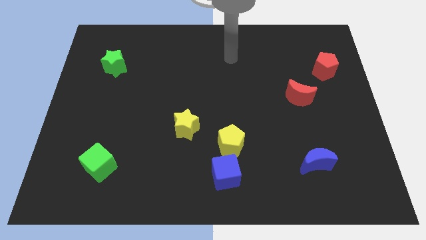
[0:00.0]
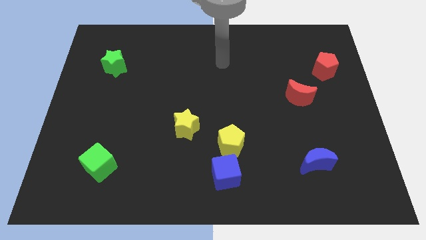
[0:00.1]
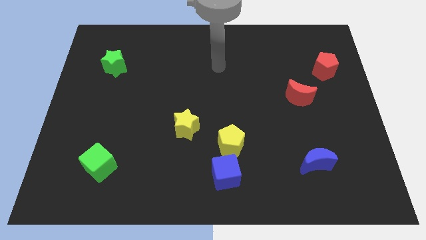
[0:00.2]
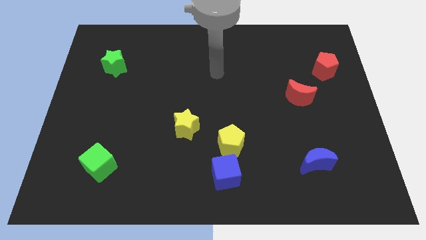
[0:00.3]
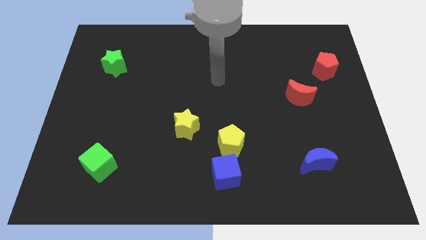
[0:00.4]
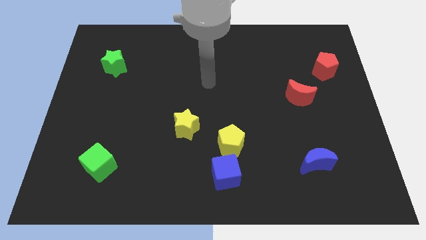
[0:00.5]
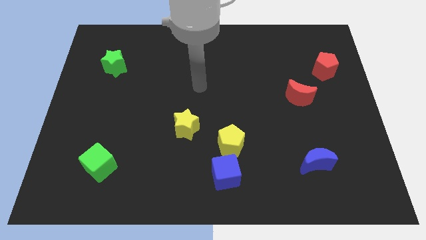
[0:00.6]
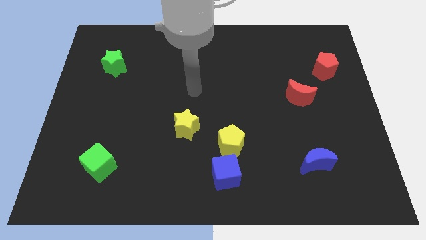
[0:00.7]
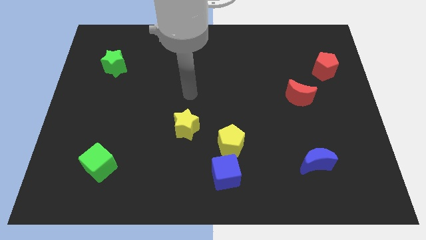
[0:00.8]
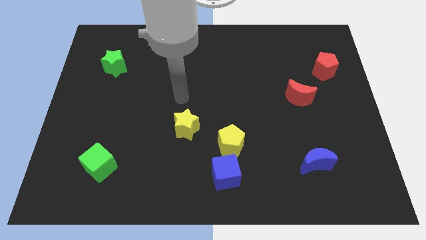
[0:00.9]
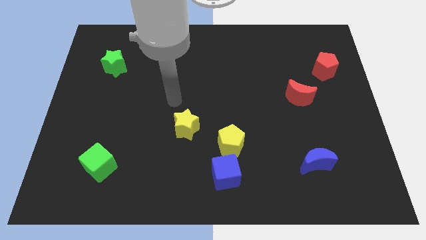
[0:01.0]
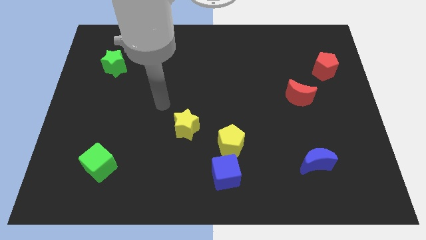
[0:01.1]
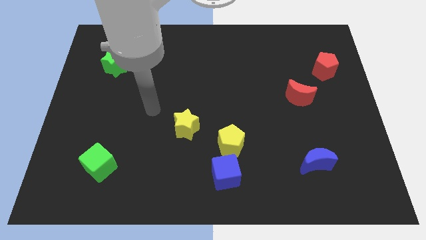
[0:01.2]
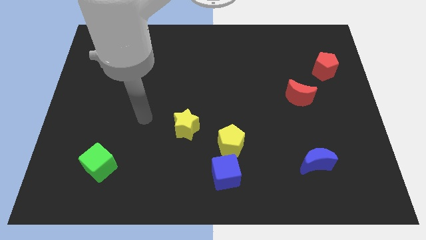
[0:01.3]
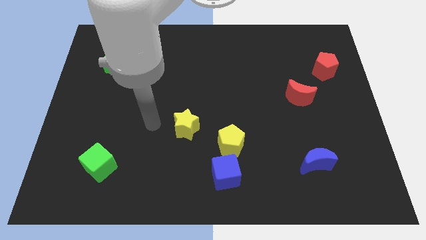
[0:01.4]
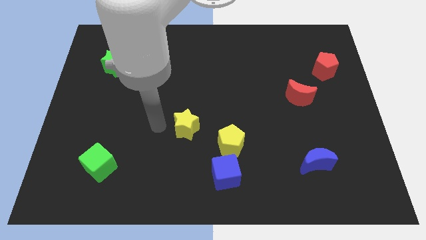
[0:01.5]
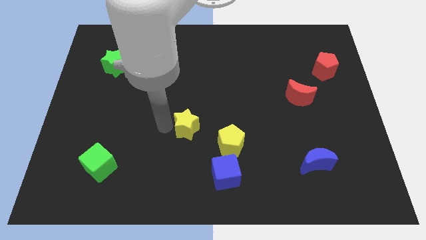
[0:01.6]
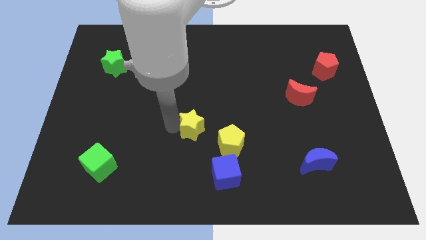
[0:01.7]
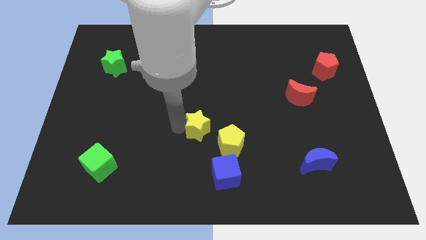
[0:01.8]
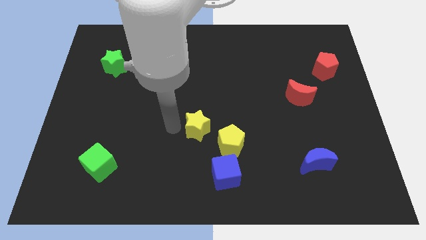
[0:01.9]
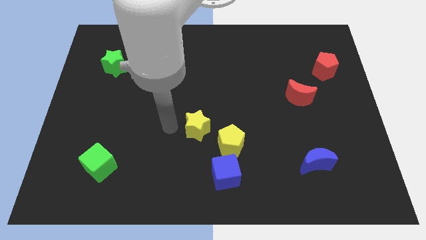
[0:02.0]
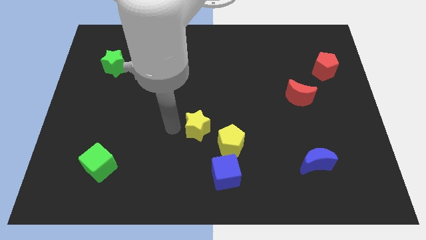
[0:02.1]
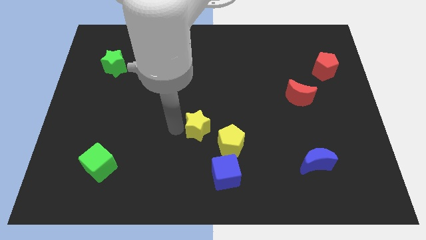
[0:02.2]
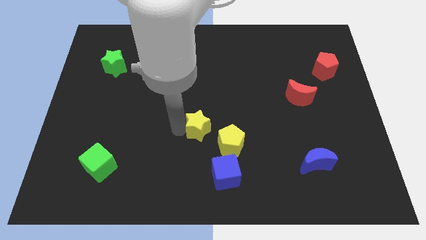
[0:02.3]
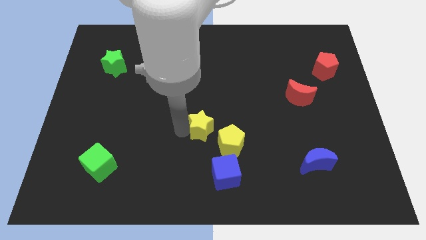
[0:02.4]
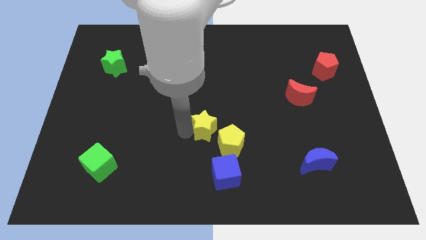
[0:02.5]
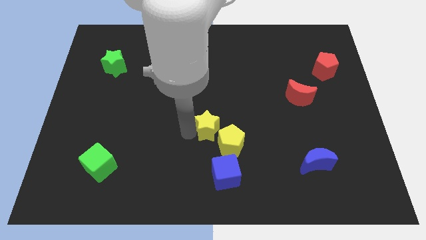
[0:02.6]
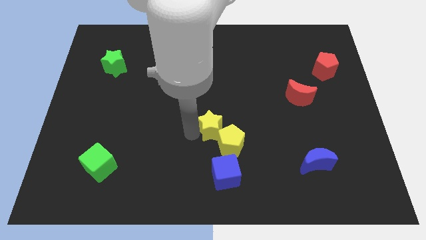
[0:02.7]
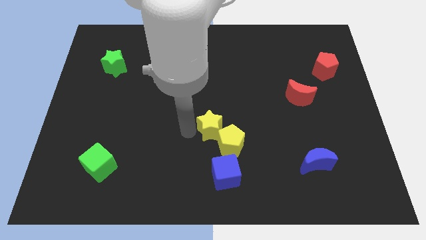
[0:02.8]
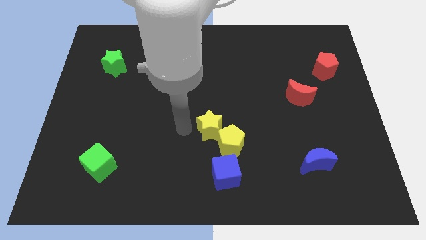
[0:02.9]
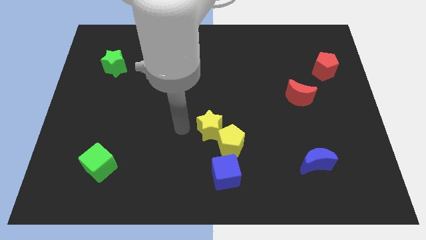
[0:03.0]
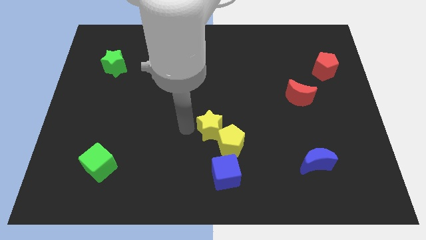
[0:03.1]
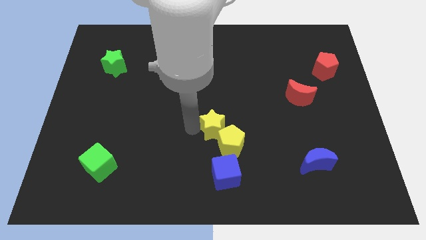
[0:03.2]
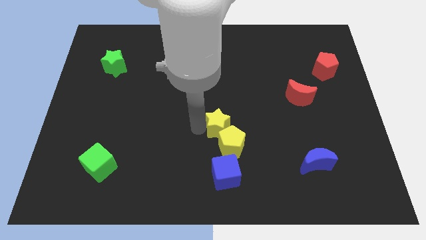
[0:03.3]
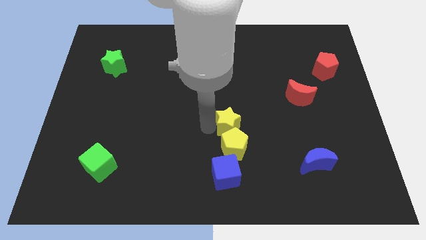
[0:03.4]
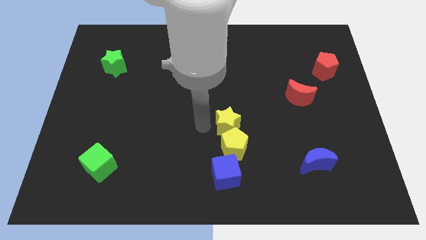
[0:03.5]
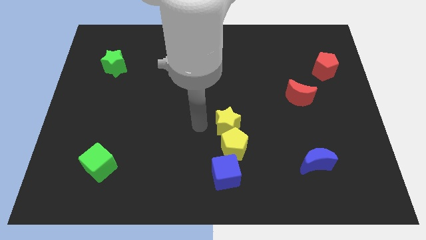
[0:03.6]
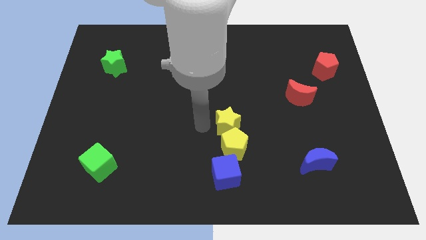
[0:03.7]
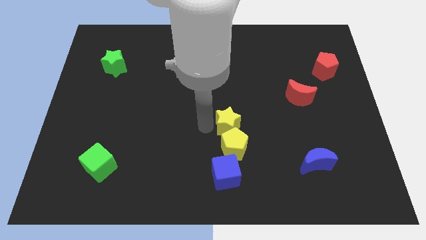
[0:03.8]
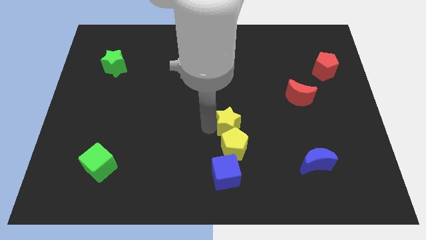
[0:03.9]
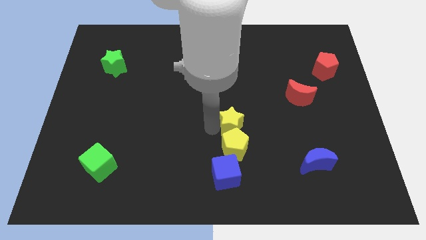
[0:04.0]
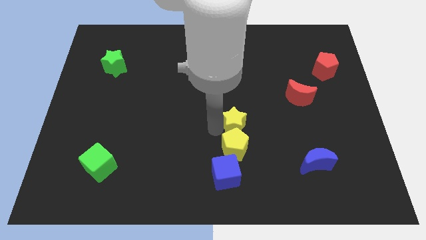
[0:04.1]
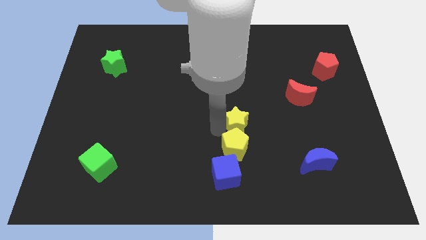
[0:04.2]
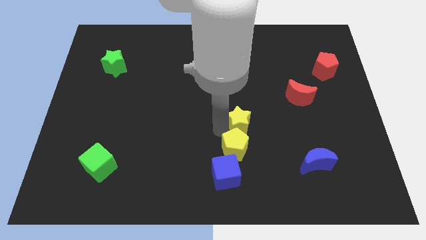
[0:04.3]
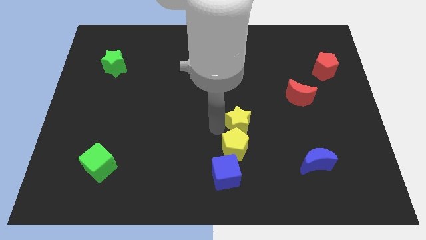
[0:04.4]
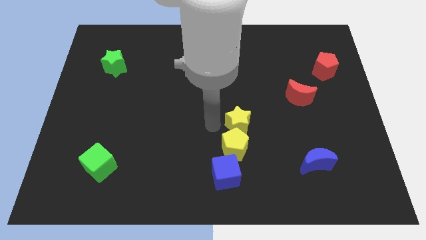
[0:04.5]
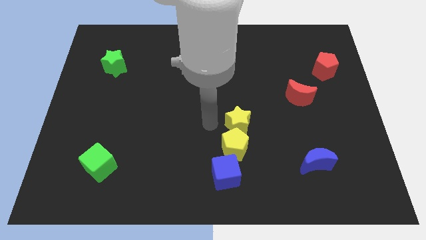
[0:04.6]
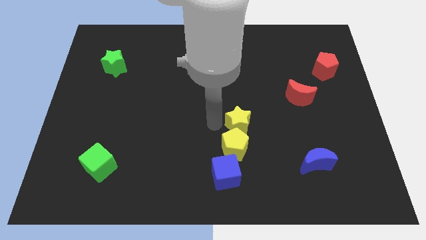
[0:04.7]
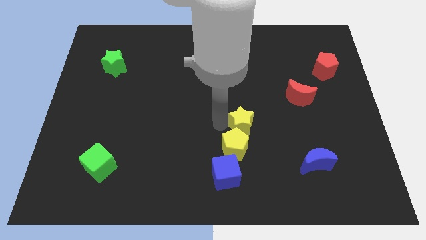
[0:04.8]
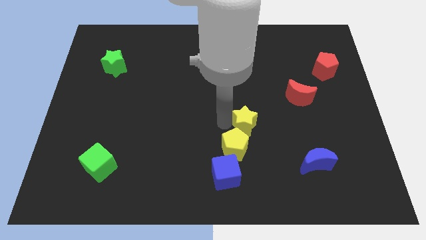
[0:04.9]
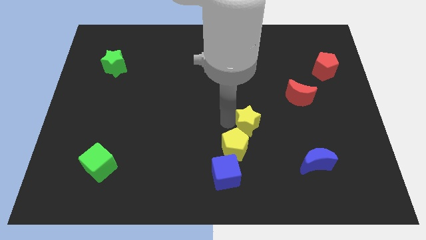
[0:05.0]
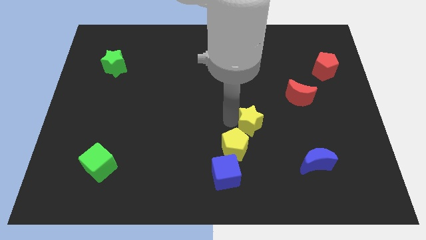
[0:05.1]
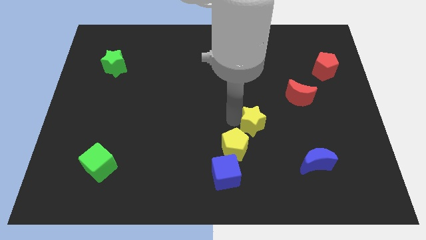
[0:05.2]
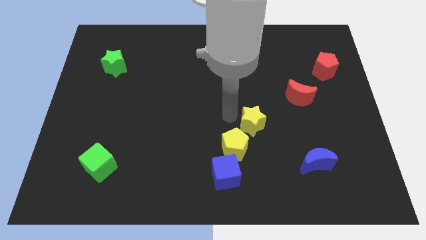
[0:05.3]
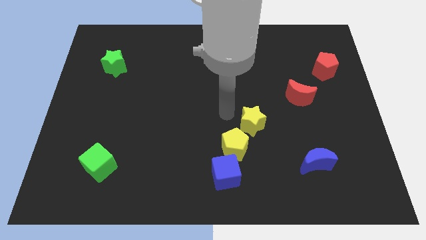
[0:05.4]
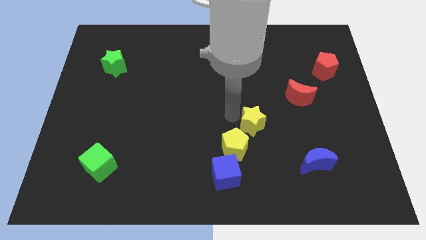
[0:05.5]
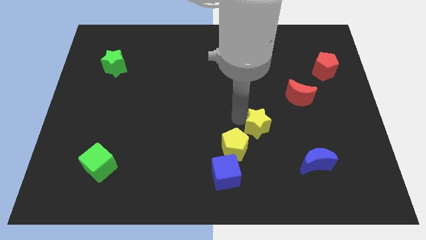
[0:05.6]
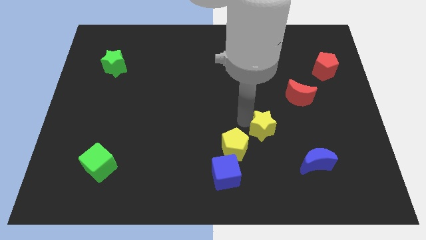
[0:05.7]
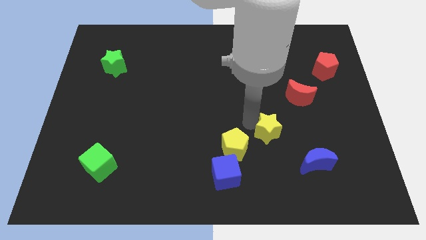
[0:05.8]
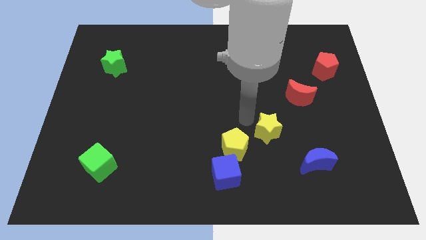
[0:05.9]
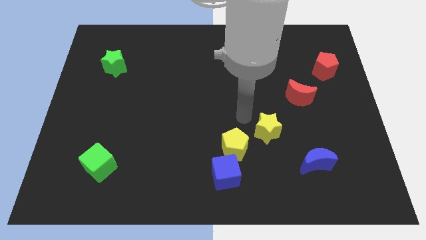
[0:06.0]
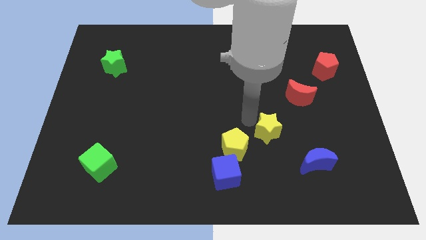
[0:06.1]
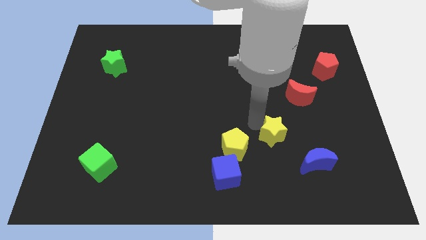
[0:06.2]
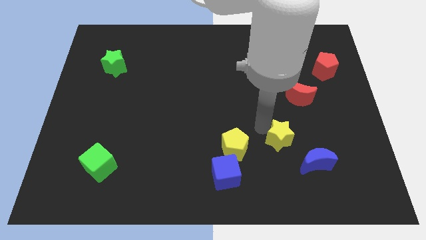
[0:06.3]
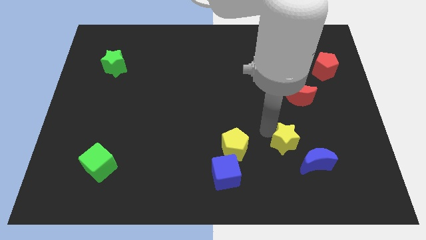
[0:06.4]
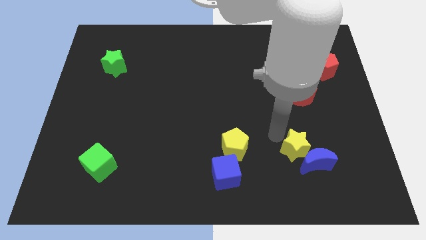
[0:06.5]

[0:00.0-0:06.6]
put the yellow star to the blue moon

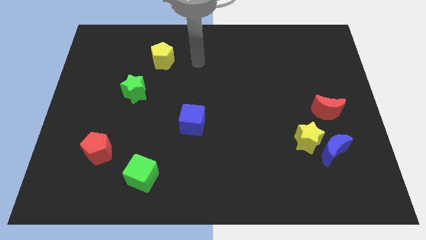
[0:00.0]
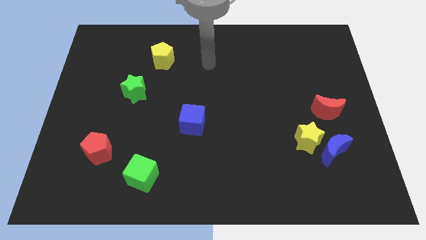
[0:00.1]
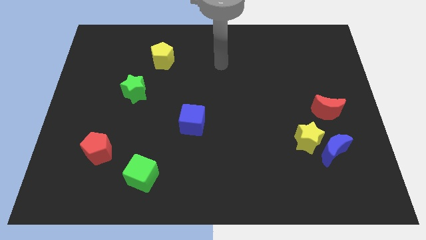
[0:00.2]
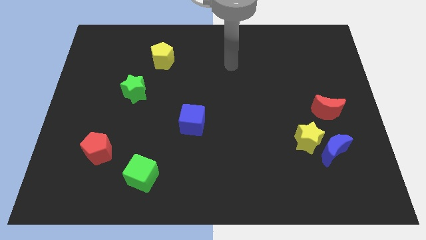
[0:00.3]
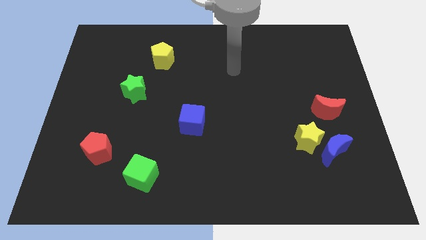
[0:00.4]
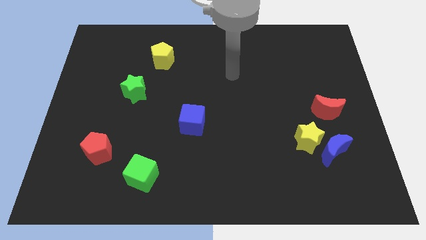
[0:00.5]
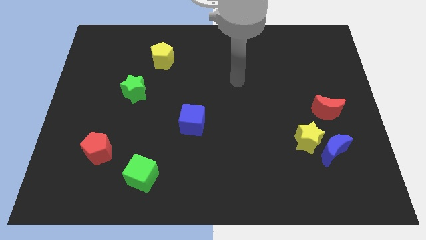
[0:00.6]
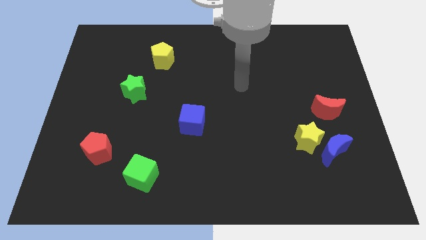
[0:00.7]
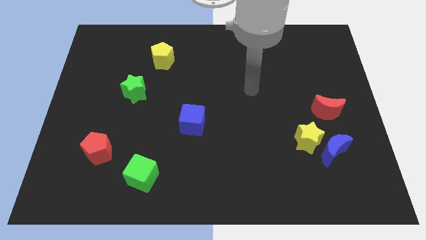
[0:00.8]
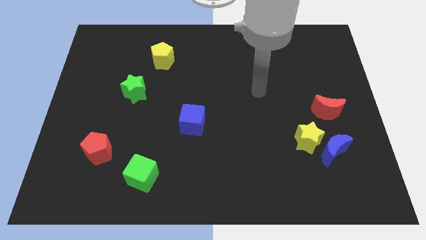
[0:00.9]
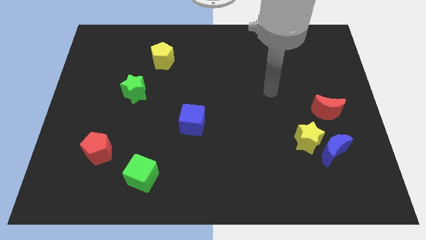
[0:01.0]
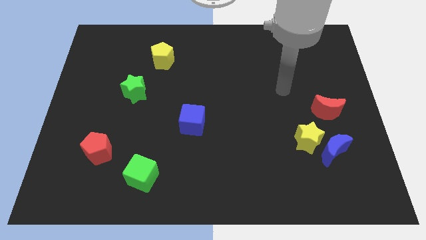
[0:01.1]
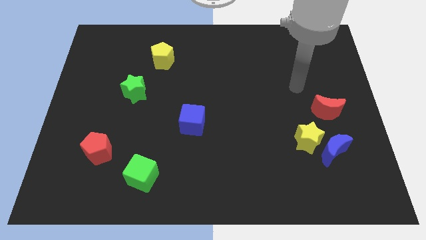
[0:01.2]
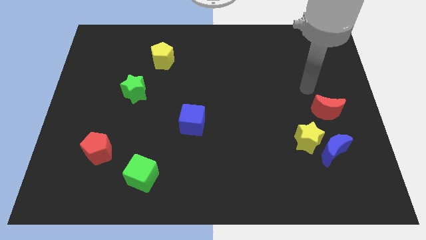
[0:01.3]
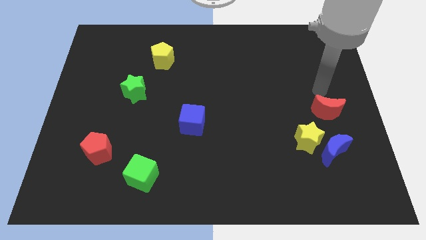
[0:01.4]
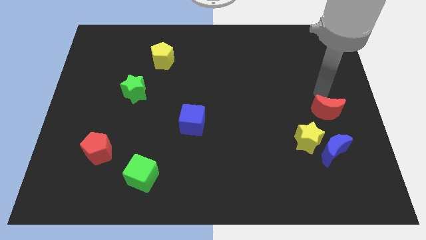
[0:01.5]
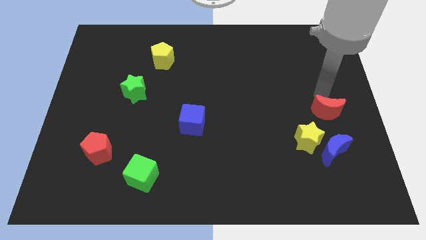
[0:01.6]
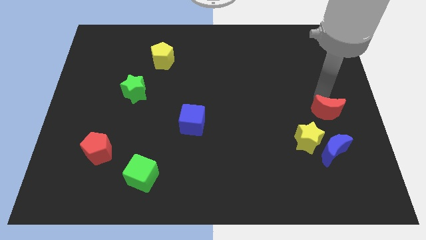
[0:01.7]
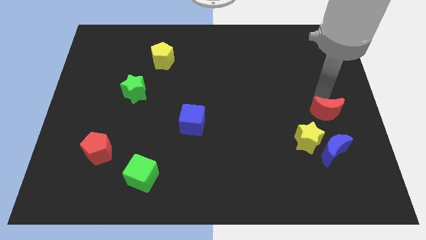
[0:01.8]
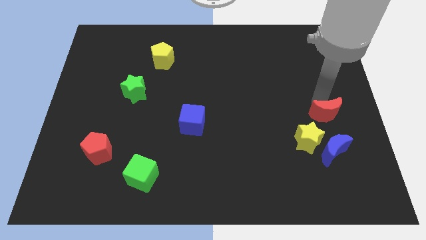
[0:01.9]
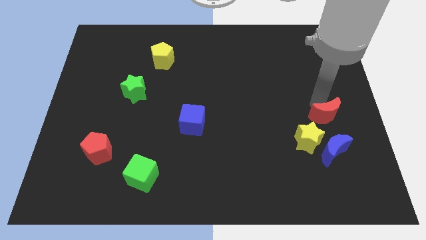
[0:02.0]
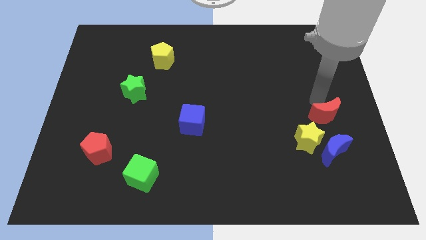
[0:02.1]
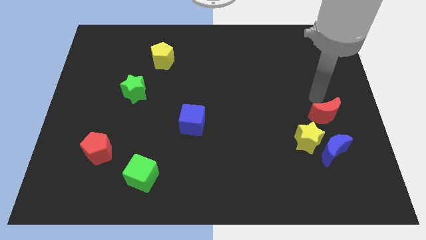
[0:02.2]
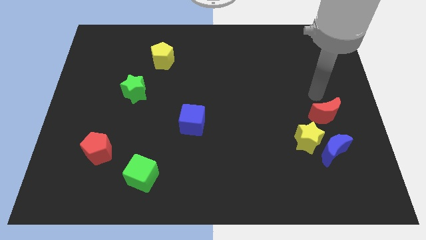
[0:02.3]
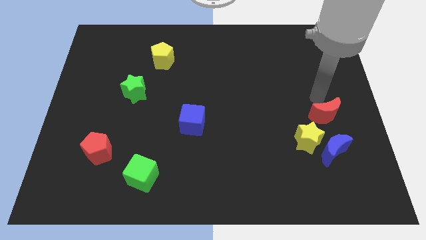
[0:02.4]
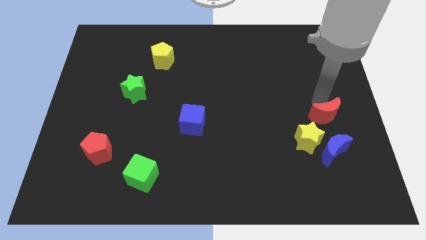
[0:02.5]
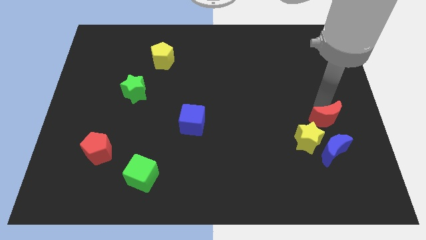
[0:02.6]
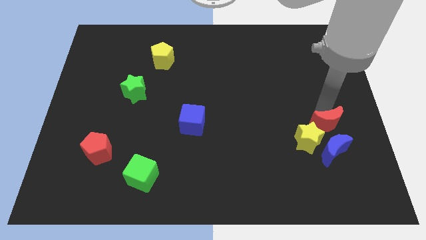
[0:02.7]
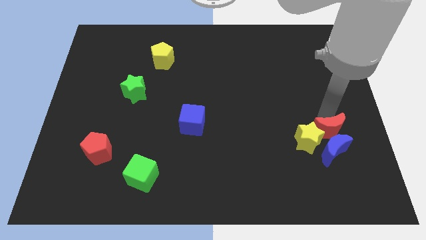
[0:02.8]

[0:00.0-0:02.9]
put the red moon close to the blue moon
